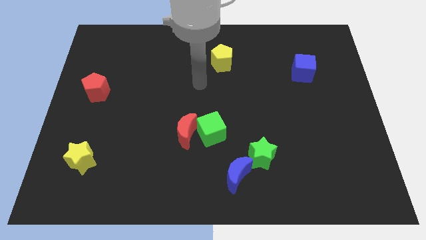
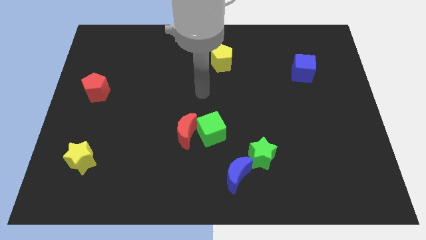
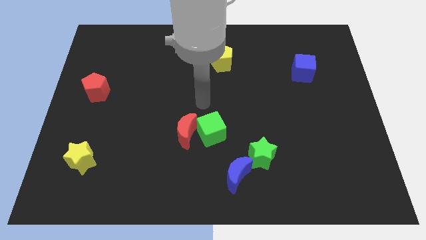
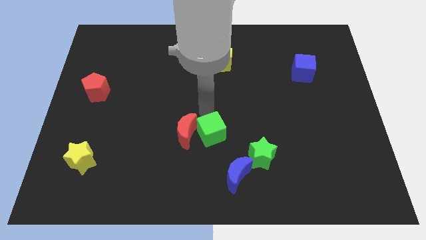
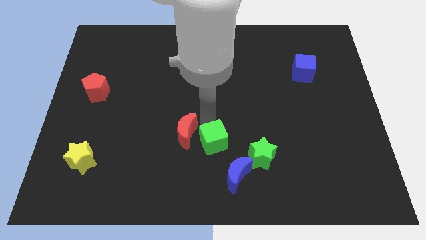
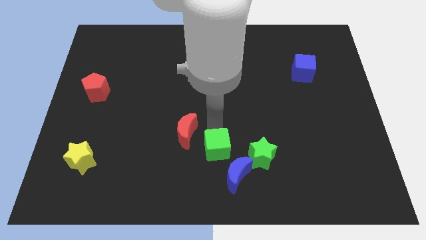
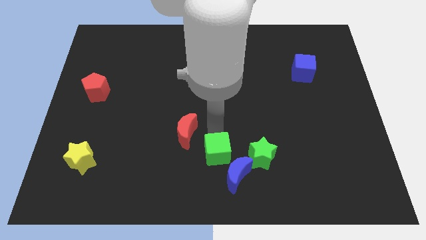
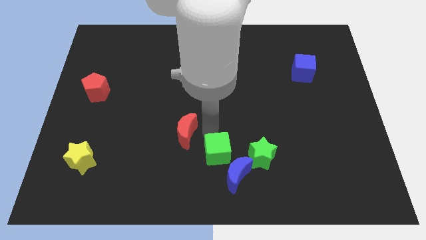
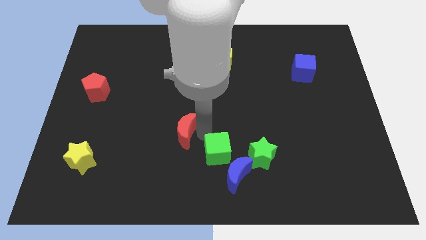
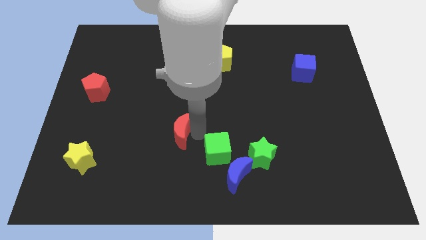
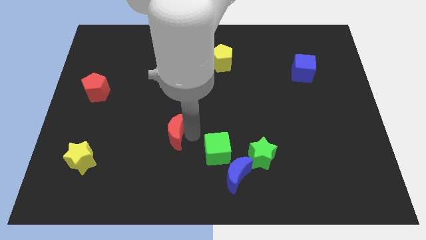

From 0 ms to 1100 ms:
pull the red moon apart from the green cube

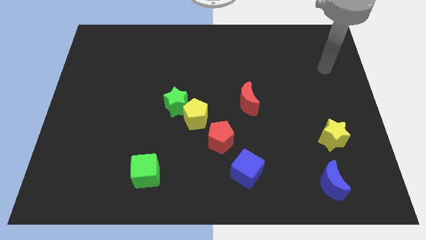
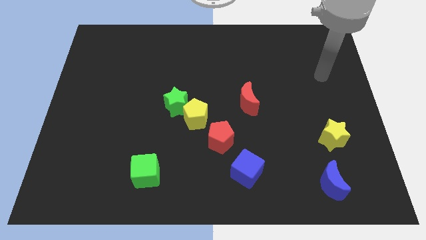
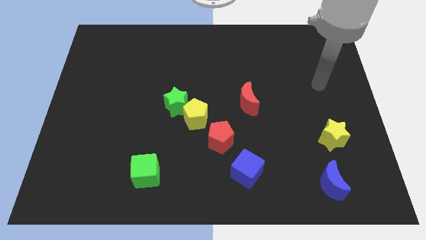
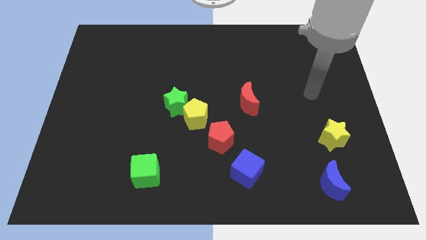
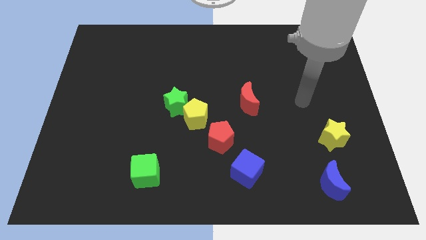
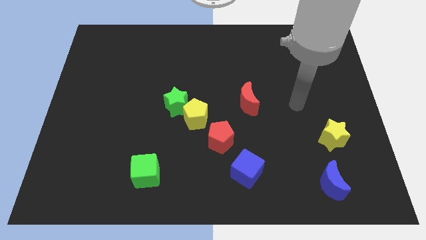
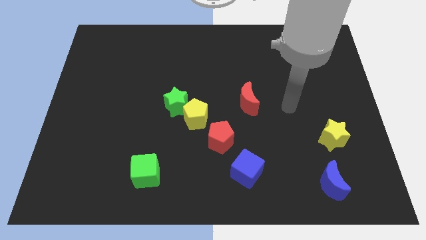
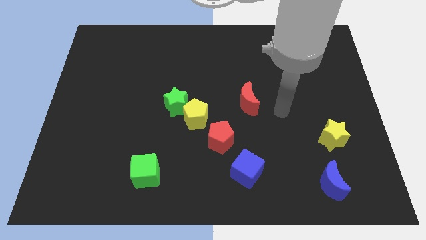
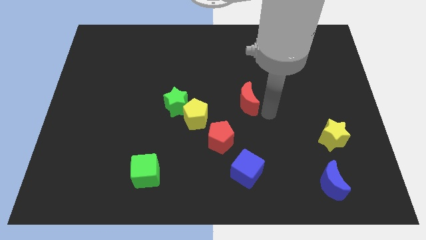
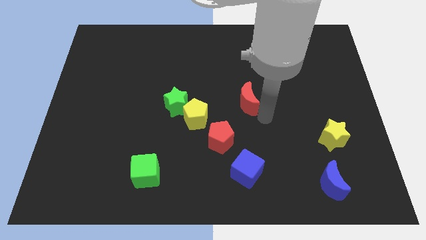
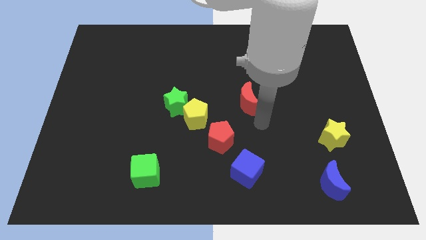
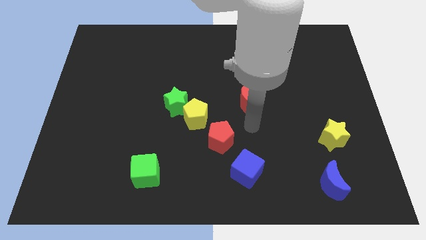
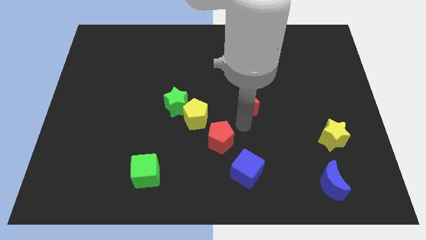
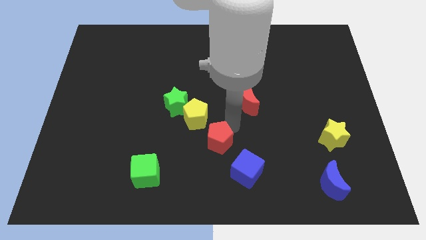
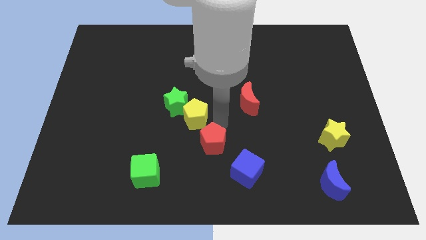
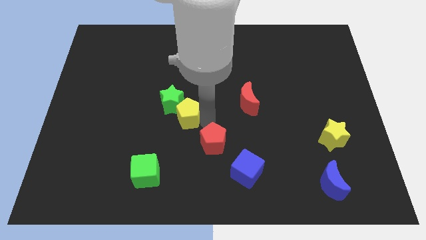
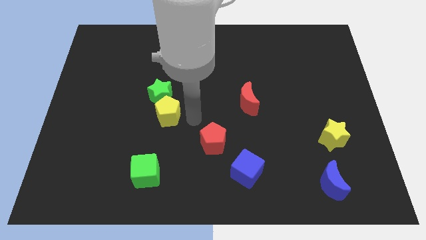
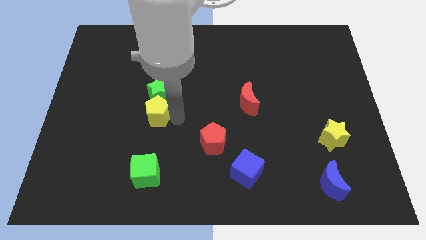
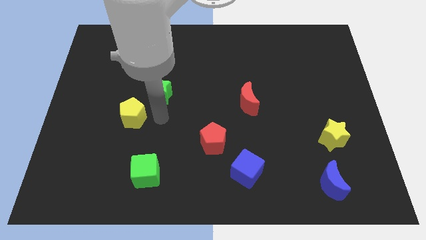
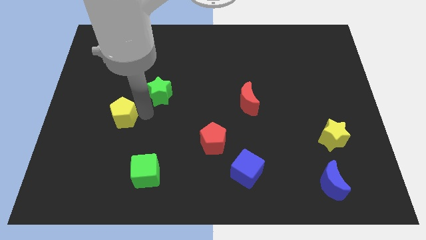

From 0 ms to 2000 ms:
pull the green star apart from the yellow pentagon

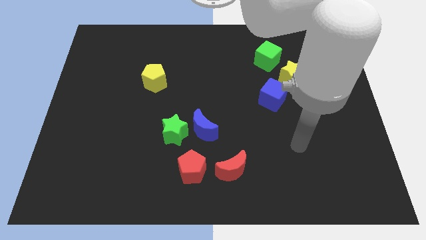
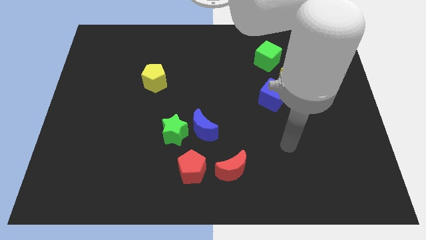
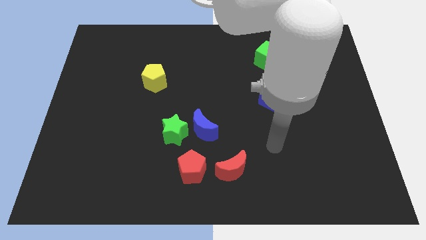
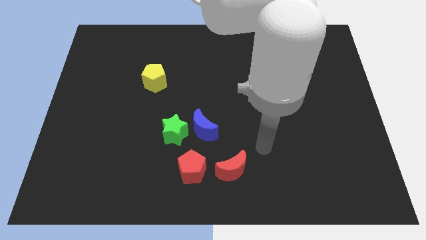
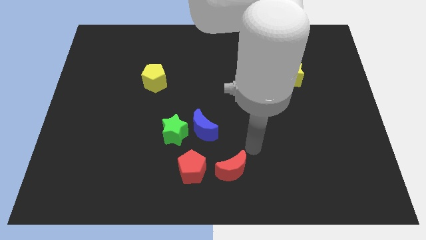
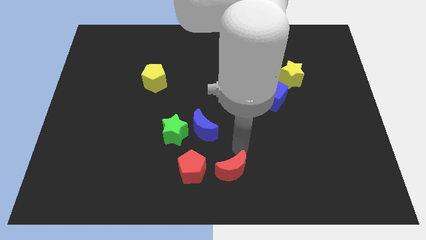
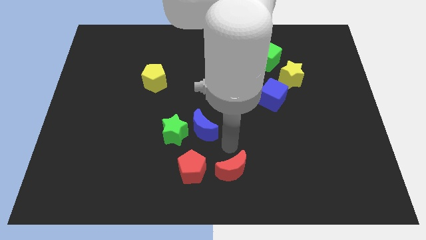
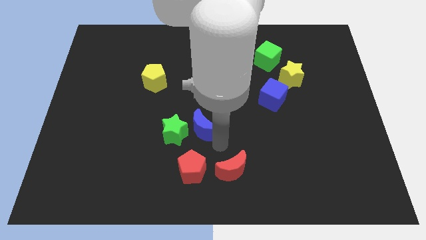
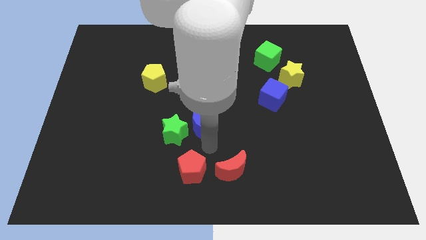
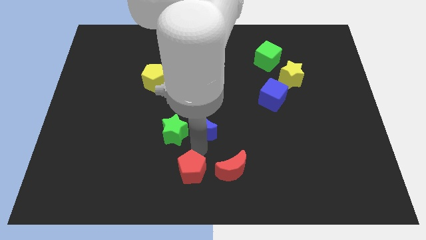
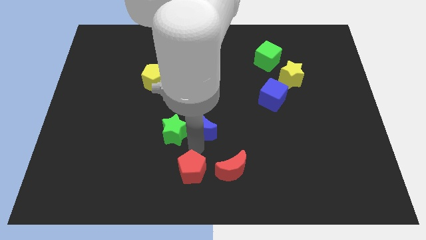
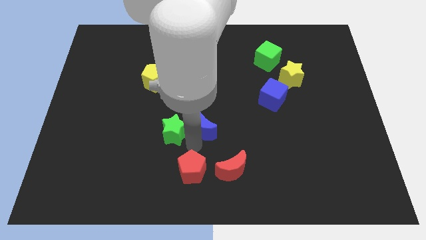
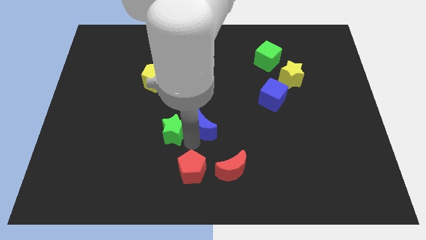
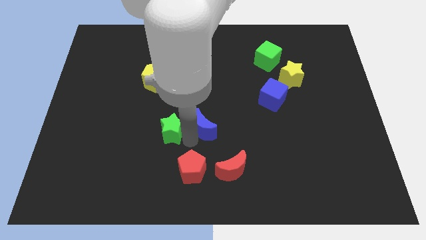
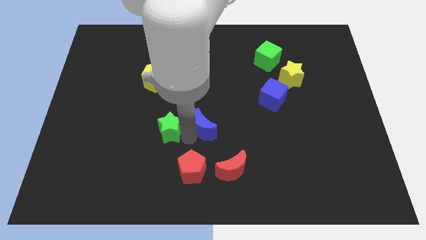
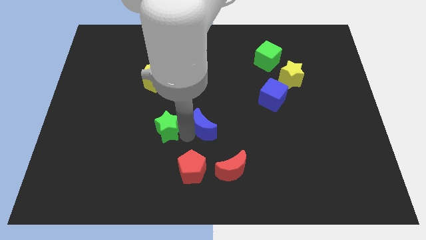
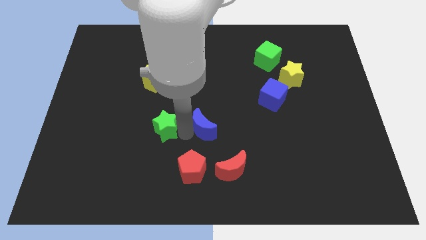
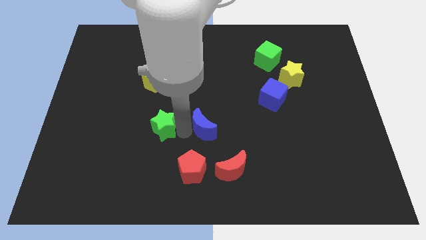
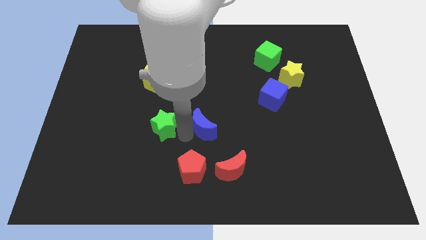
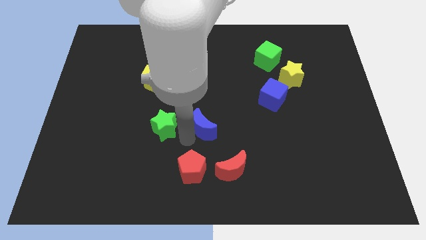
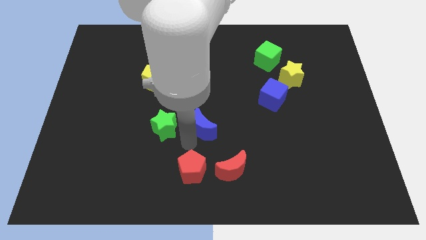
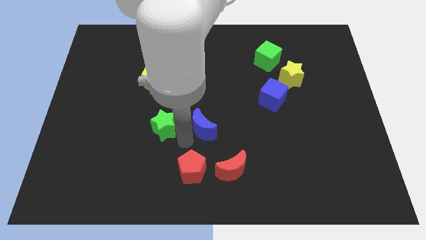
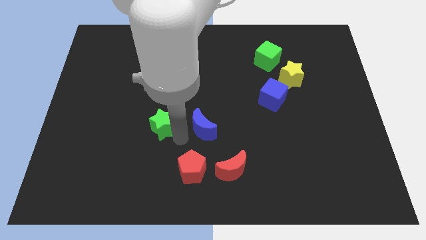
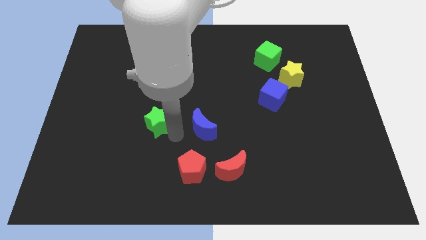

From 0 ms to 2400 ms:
separate the green star from the blue moon and red pentagon

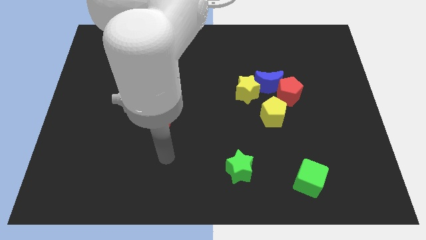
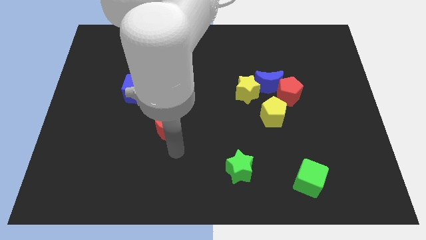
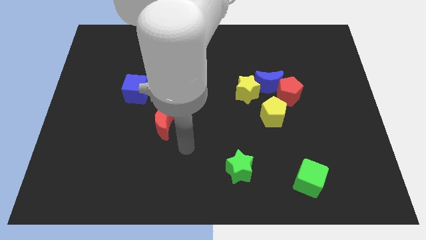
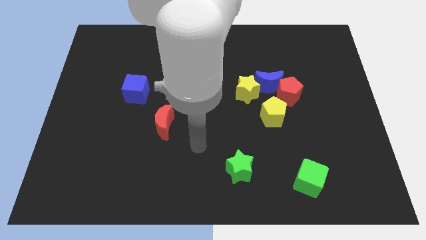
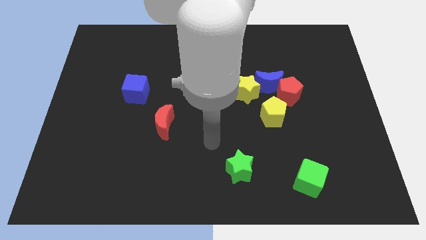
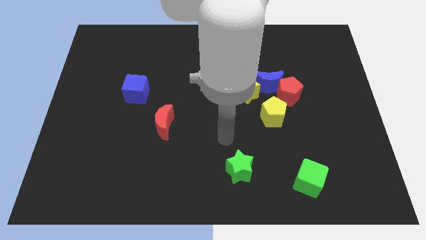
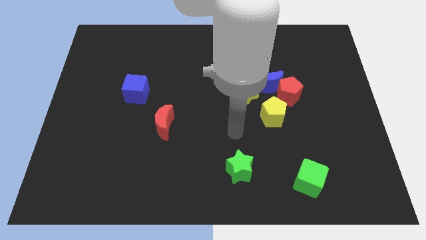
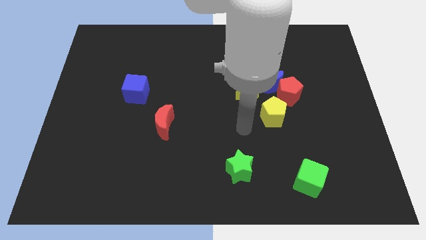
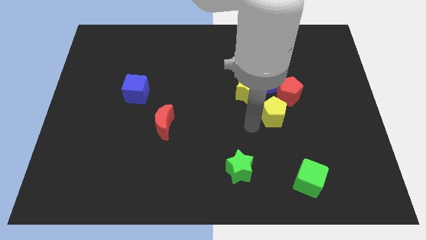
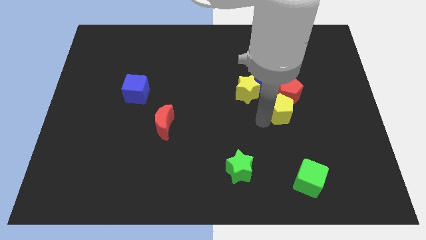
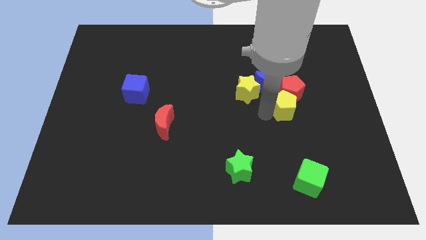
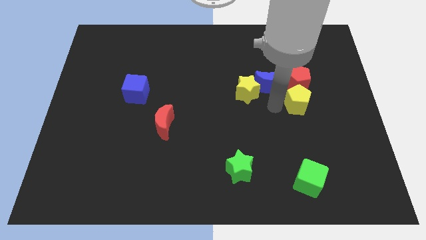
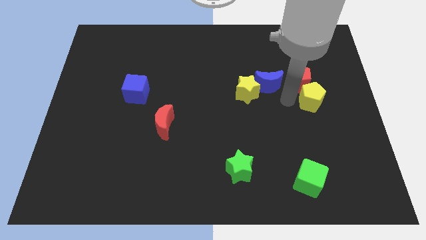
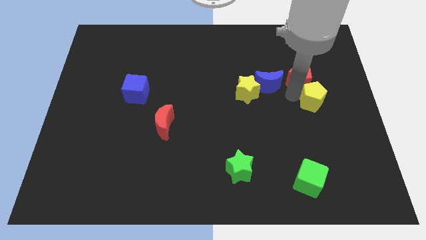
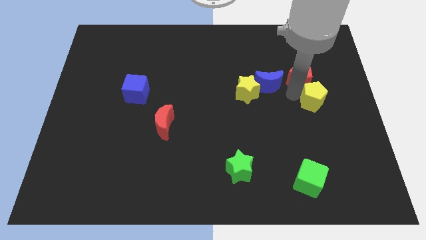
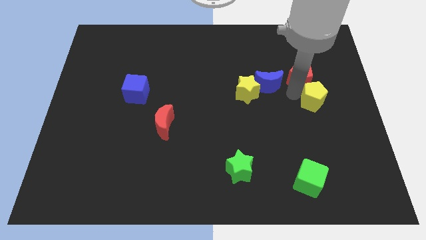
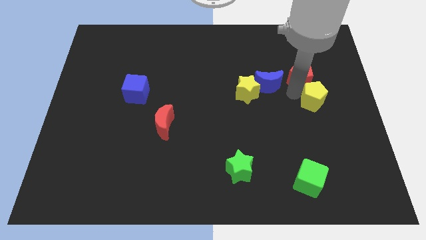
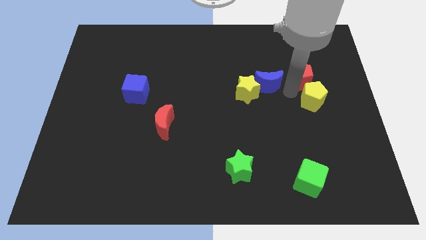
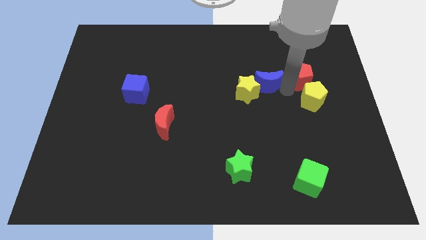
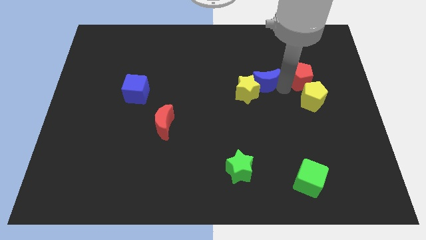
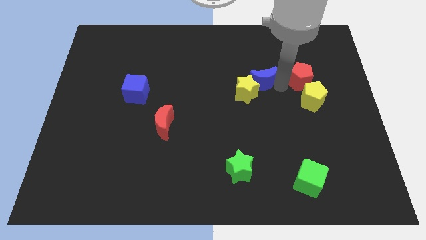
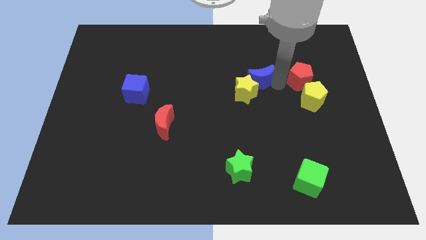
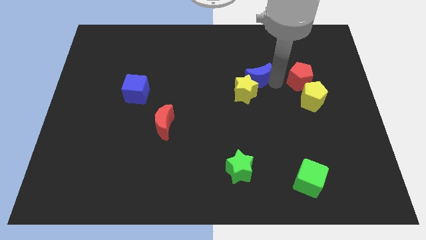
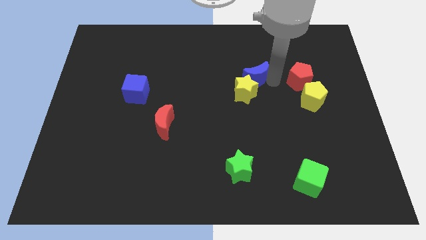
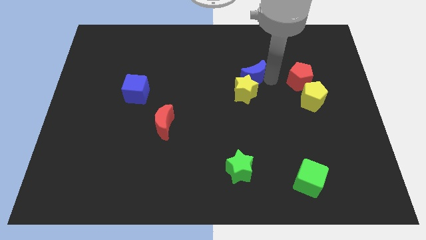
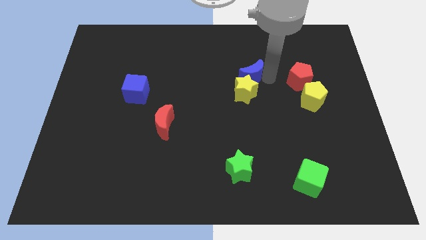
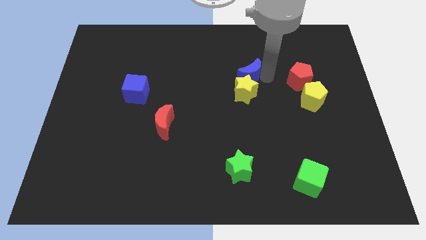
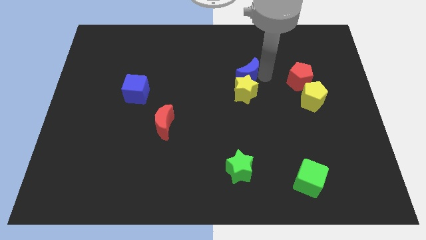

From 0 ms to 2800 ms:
move the blue moon away from the group

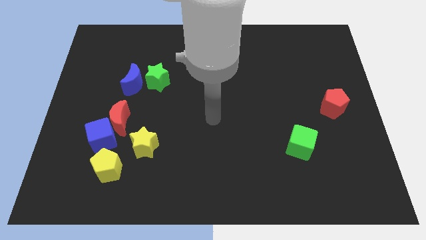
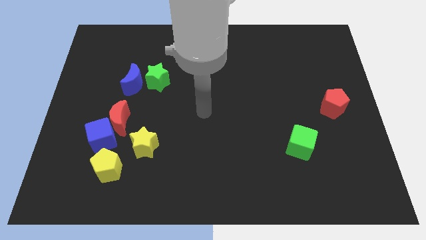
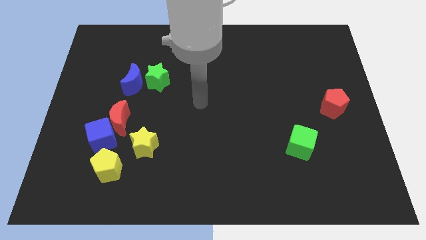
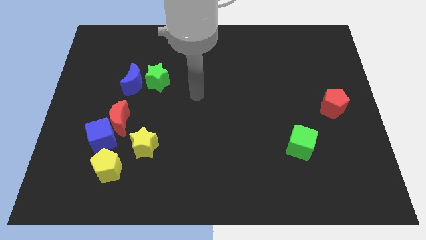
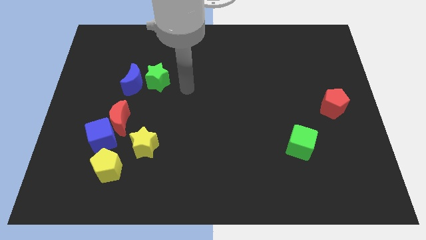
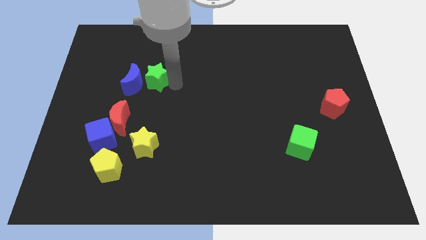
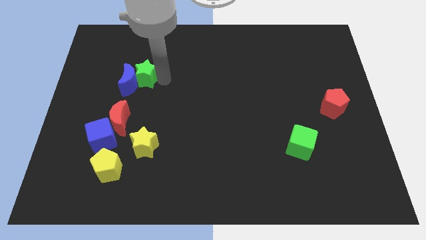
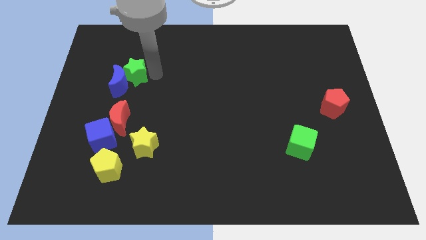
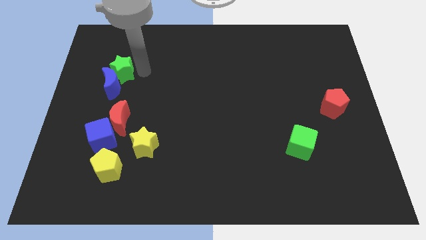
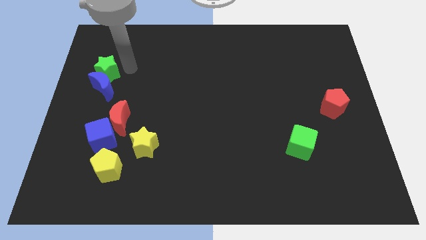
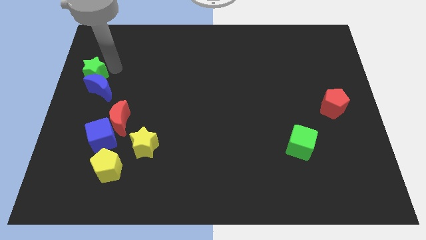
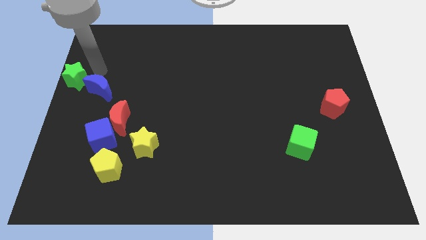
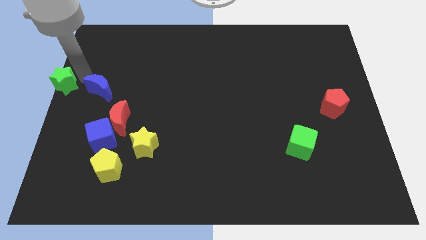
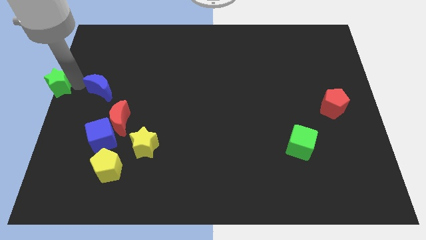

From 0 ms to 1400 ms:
move the blue moon away from the green star
